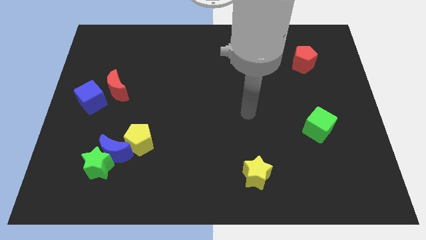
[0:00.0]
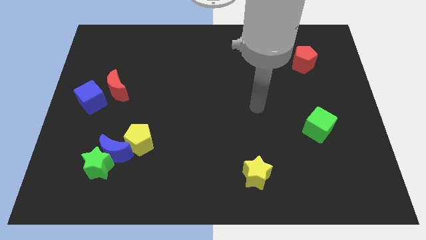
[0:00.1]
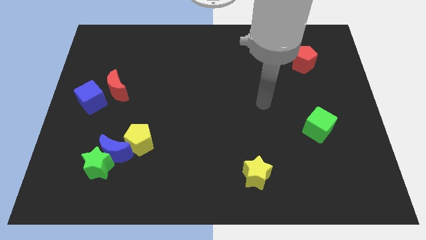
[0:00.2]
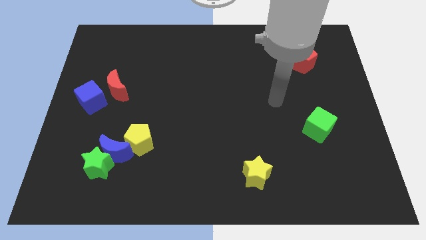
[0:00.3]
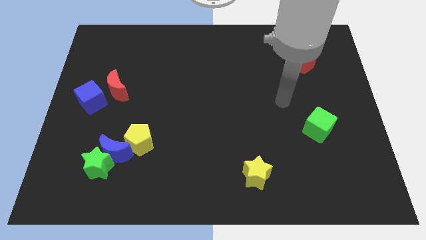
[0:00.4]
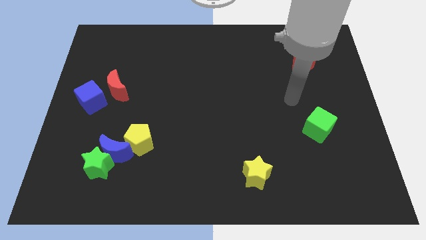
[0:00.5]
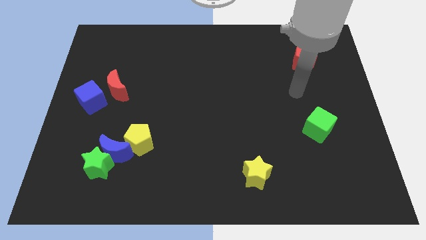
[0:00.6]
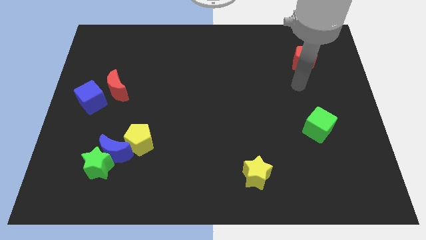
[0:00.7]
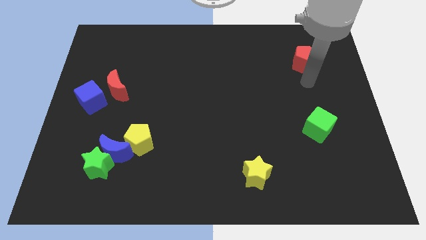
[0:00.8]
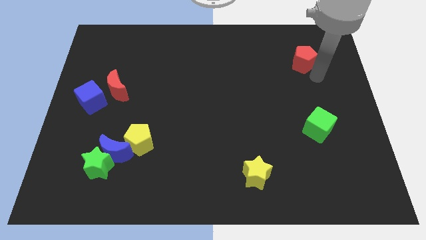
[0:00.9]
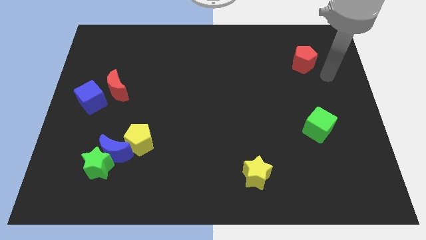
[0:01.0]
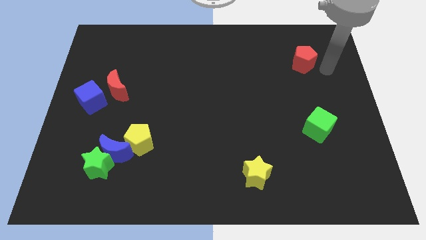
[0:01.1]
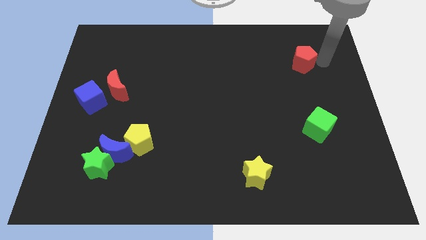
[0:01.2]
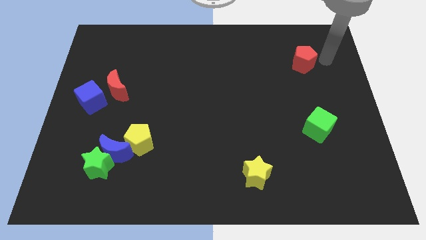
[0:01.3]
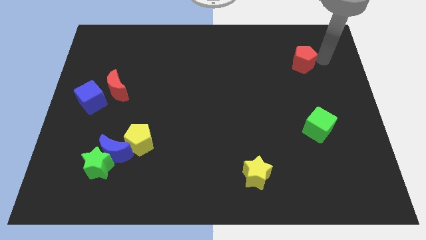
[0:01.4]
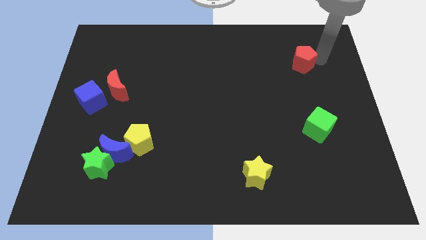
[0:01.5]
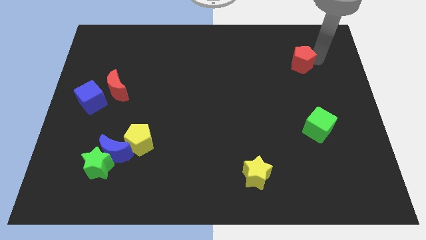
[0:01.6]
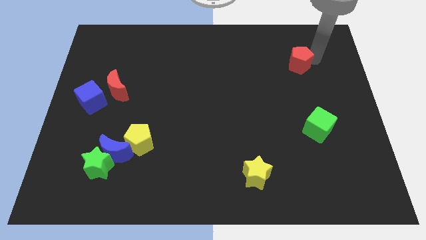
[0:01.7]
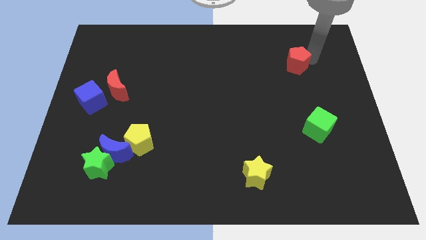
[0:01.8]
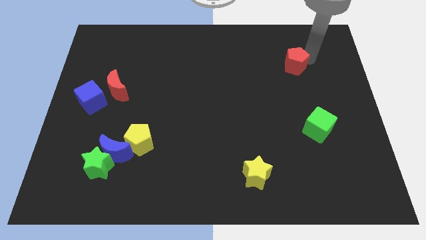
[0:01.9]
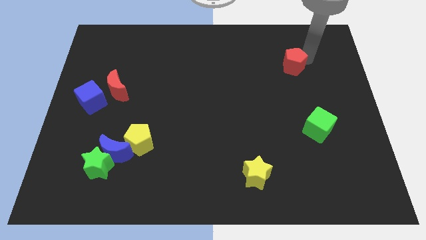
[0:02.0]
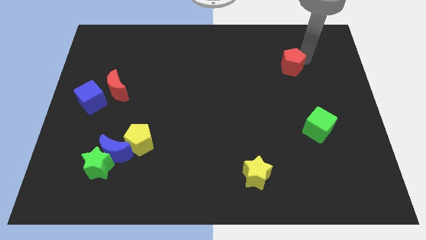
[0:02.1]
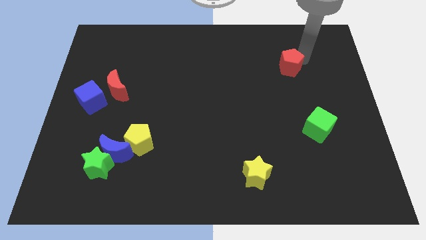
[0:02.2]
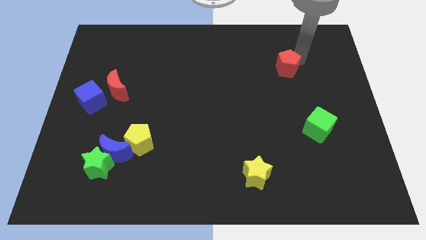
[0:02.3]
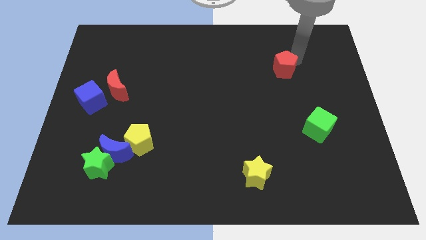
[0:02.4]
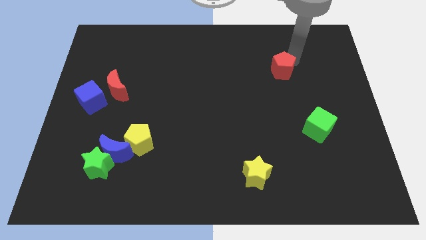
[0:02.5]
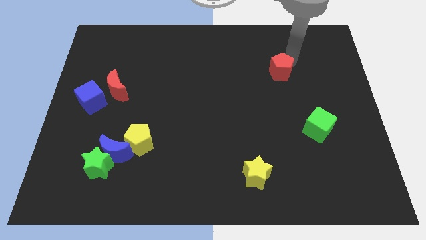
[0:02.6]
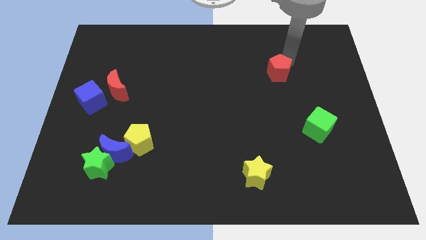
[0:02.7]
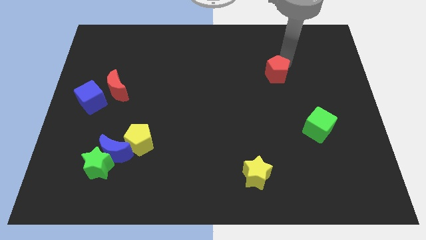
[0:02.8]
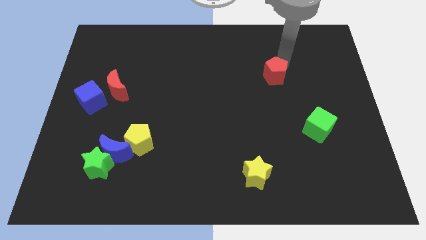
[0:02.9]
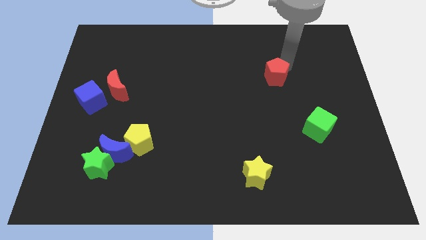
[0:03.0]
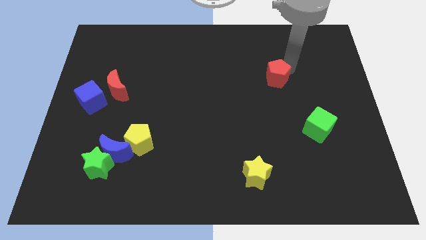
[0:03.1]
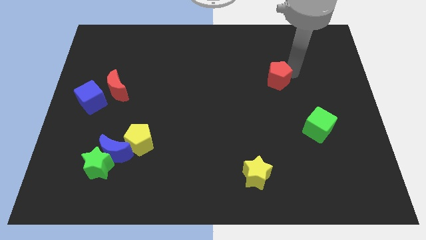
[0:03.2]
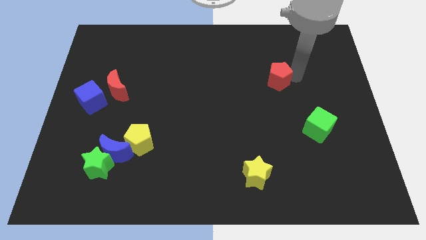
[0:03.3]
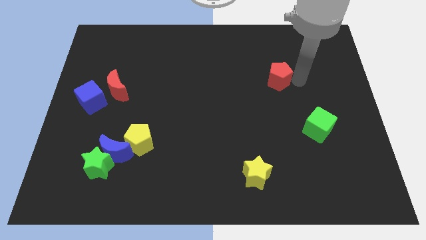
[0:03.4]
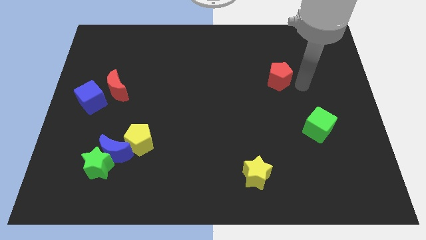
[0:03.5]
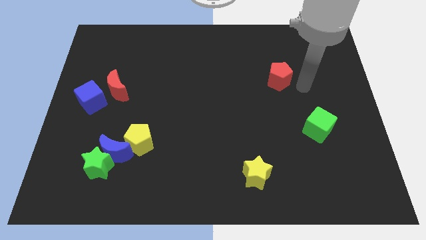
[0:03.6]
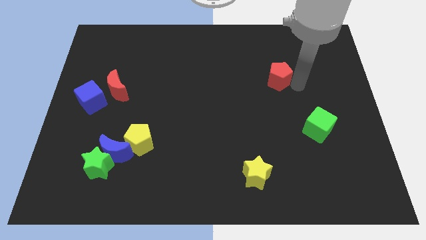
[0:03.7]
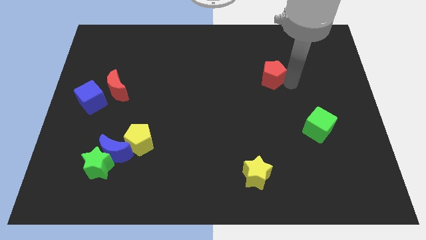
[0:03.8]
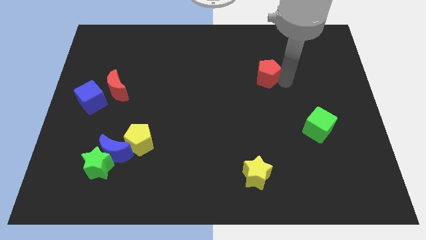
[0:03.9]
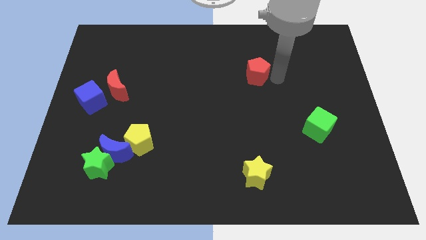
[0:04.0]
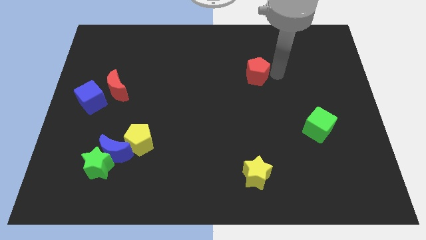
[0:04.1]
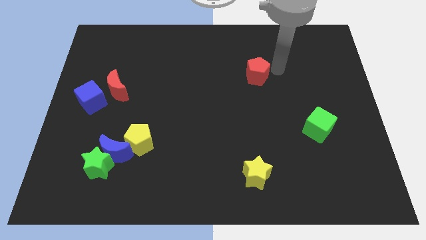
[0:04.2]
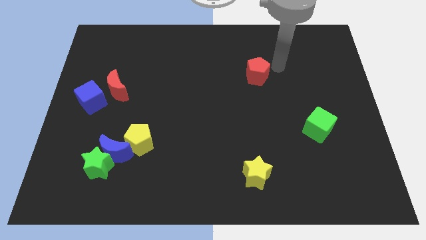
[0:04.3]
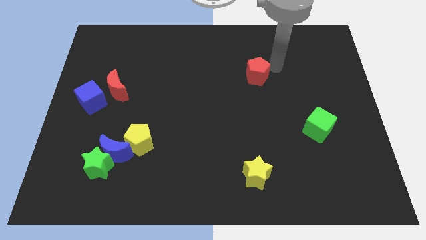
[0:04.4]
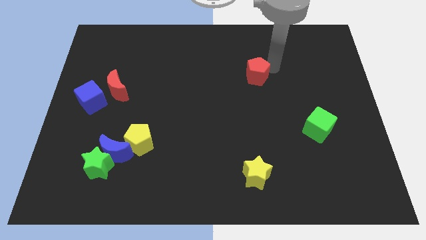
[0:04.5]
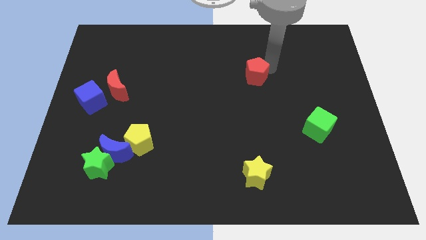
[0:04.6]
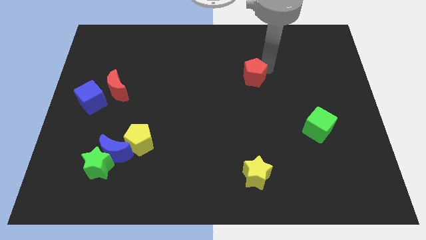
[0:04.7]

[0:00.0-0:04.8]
slide the red pentagon to the middle of the board
